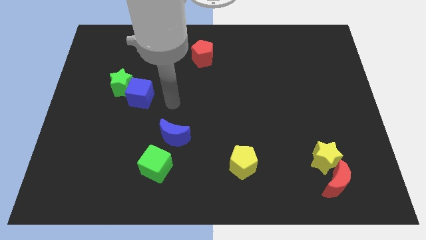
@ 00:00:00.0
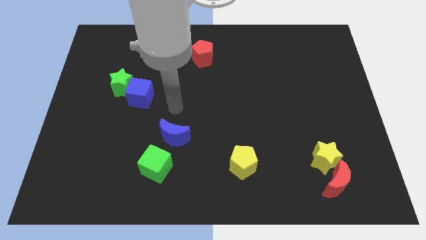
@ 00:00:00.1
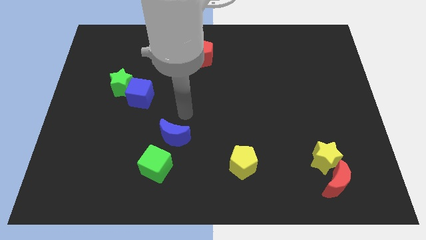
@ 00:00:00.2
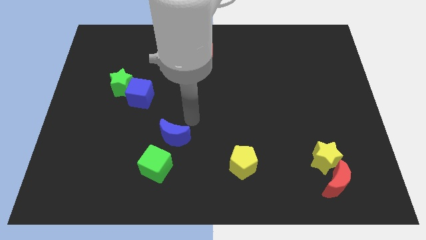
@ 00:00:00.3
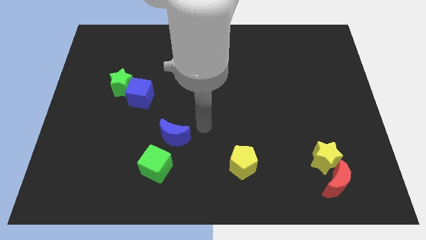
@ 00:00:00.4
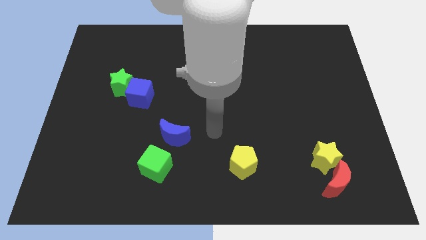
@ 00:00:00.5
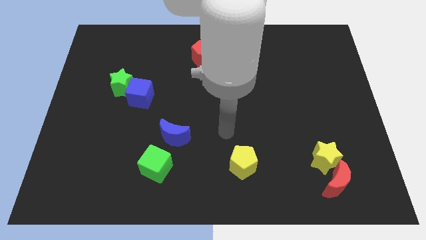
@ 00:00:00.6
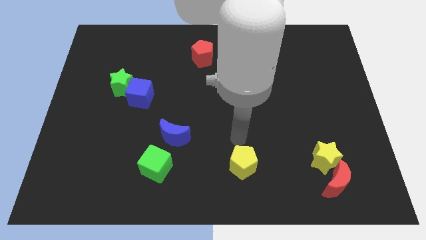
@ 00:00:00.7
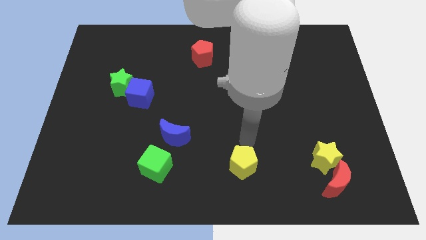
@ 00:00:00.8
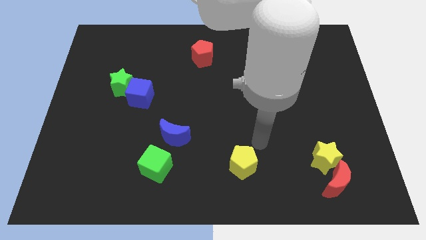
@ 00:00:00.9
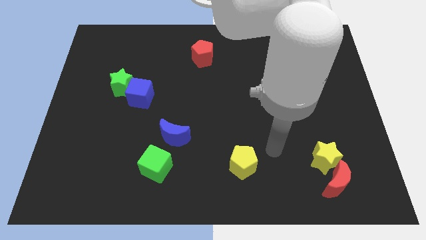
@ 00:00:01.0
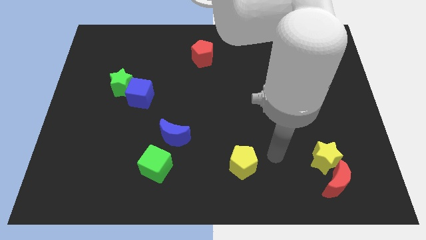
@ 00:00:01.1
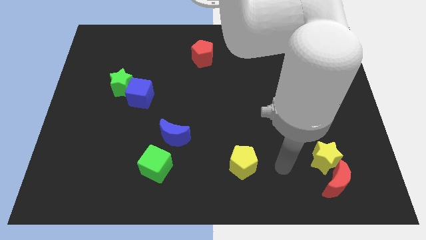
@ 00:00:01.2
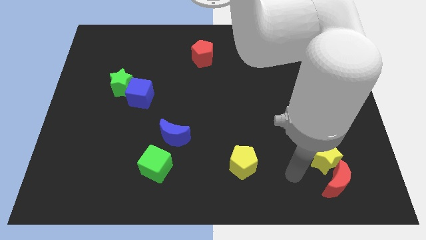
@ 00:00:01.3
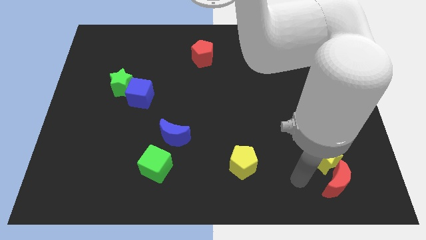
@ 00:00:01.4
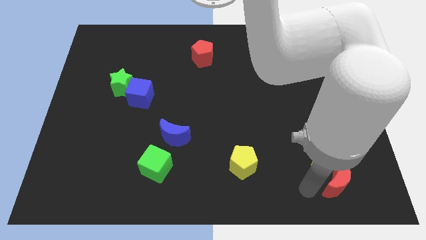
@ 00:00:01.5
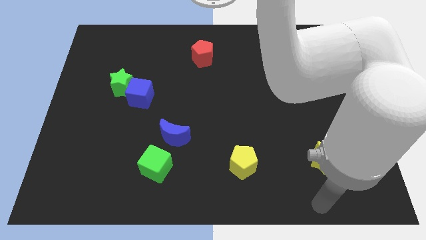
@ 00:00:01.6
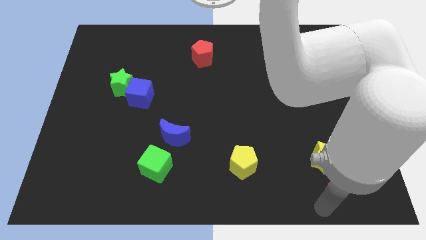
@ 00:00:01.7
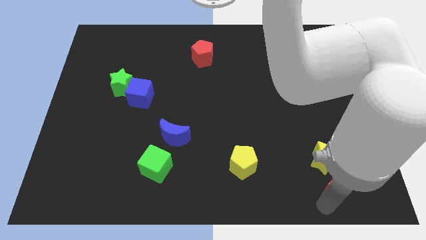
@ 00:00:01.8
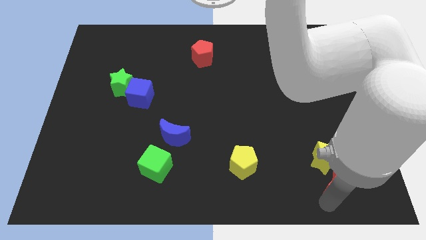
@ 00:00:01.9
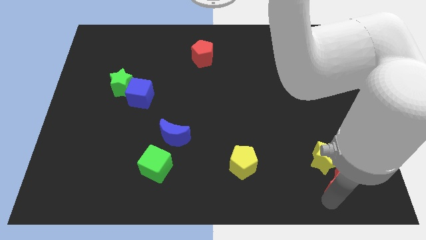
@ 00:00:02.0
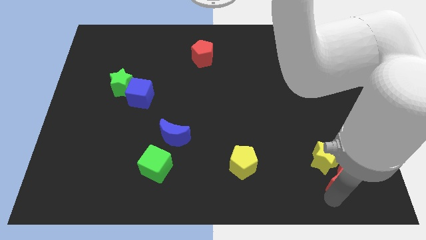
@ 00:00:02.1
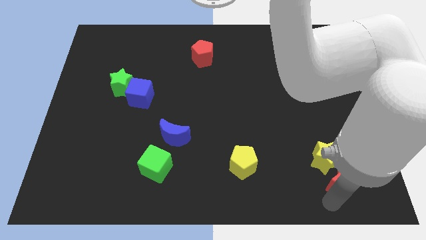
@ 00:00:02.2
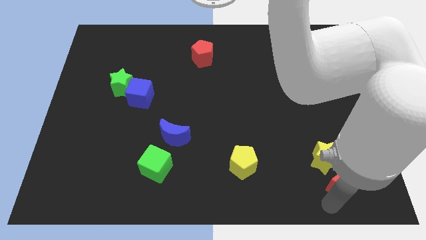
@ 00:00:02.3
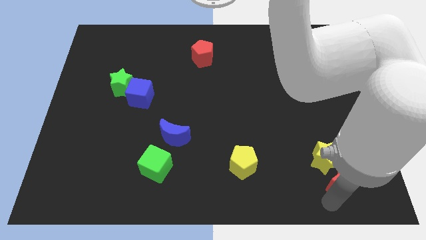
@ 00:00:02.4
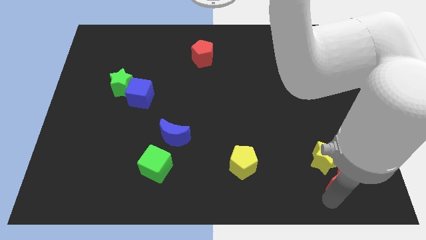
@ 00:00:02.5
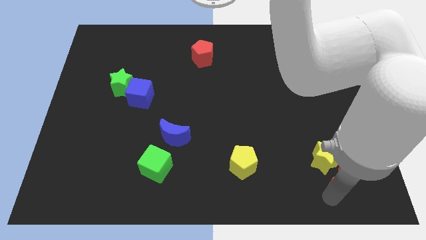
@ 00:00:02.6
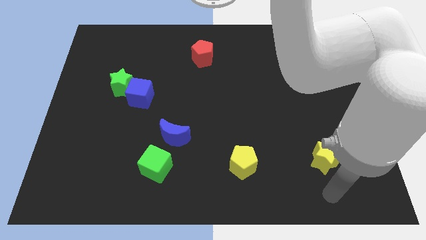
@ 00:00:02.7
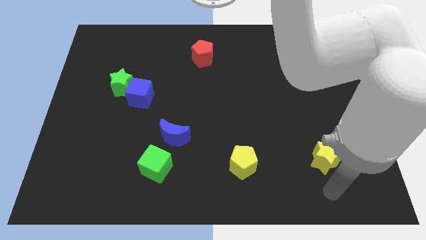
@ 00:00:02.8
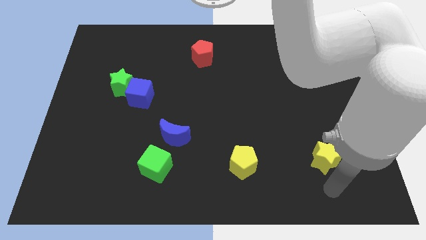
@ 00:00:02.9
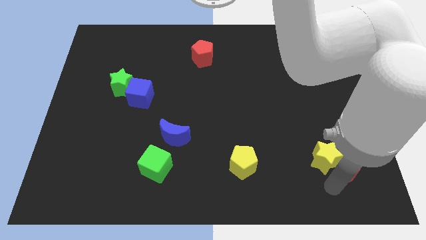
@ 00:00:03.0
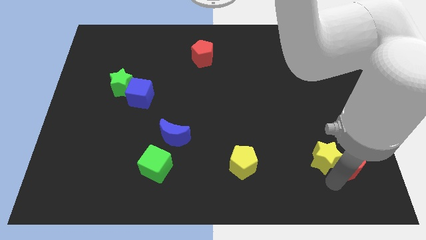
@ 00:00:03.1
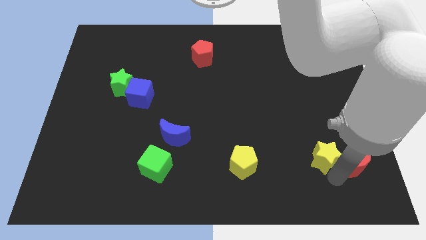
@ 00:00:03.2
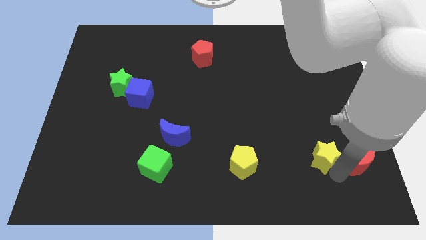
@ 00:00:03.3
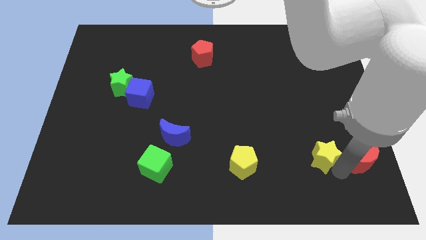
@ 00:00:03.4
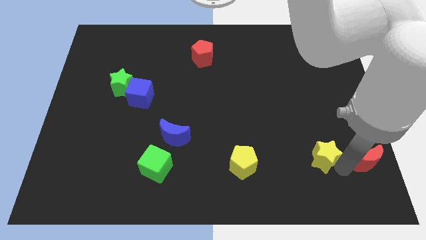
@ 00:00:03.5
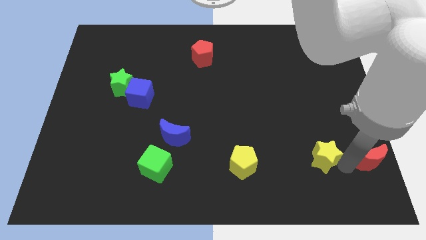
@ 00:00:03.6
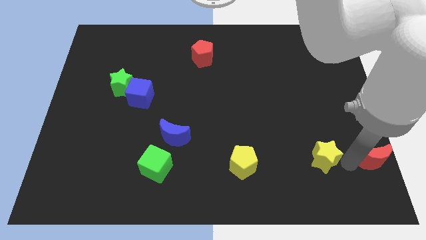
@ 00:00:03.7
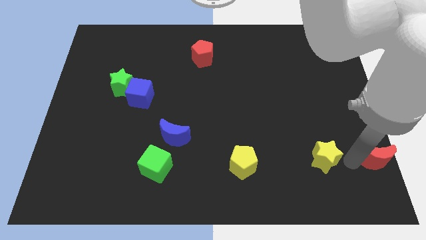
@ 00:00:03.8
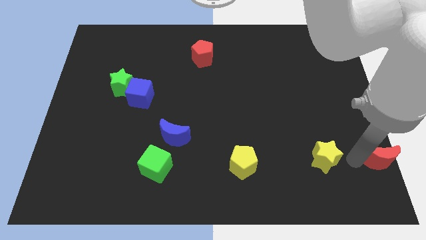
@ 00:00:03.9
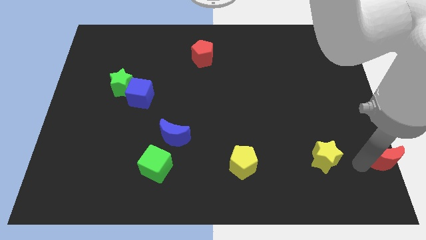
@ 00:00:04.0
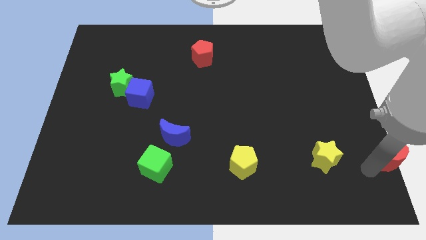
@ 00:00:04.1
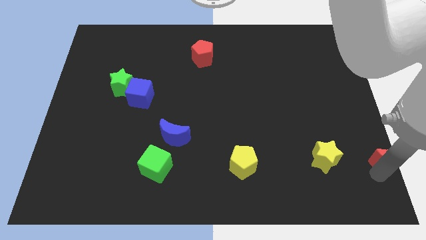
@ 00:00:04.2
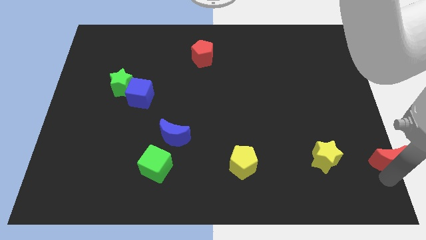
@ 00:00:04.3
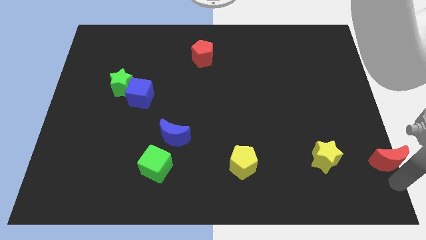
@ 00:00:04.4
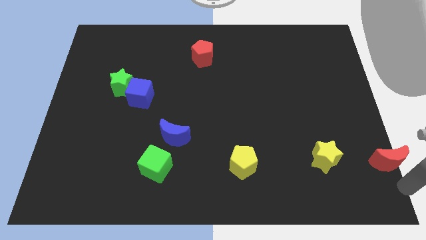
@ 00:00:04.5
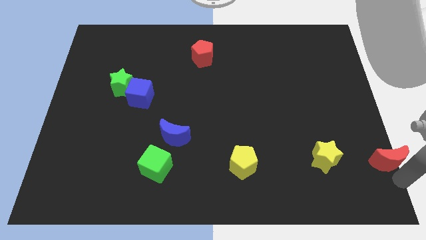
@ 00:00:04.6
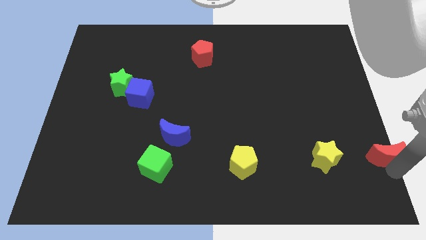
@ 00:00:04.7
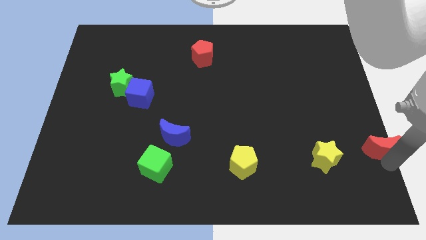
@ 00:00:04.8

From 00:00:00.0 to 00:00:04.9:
slide the red moon to the center right

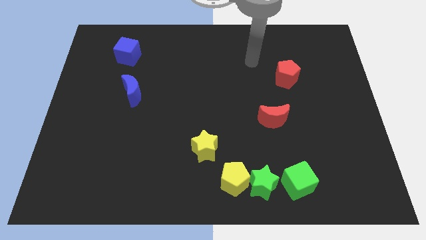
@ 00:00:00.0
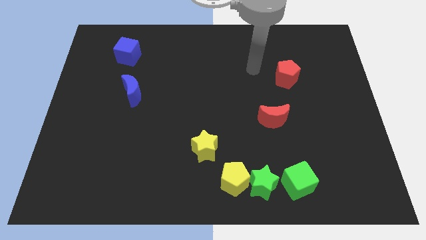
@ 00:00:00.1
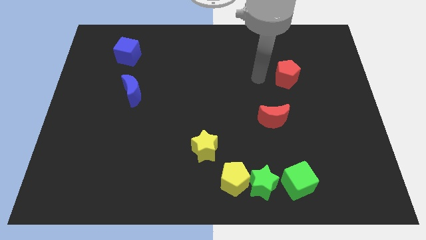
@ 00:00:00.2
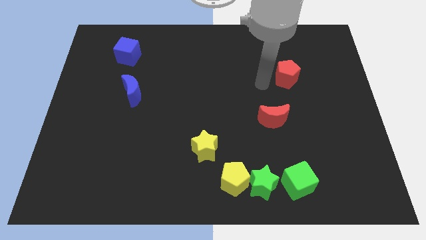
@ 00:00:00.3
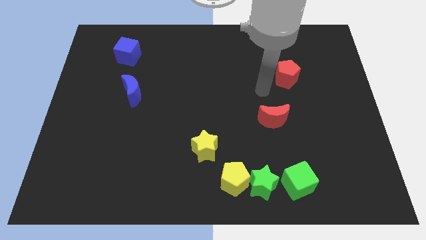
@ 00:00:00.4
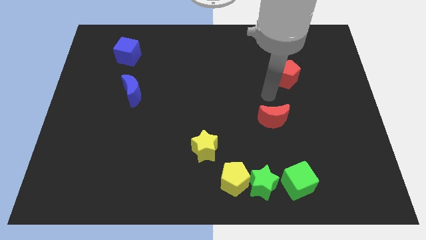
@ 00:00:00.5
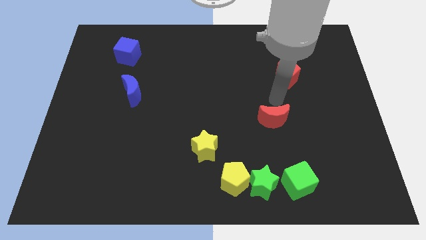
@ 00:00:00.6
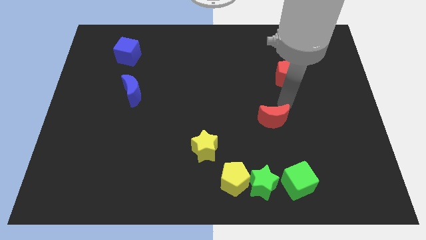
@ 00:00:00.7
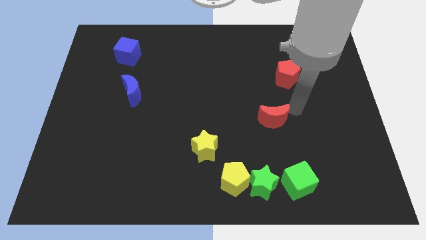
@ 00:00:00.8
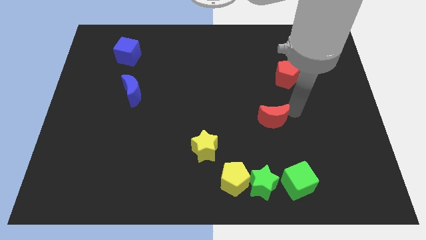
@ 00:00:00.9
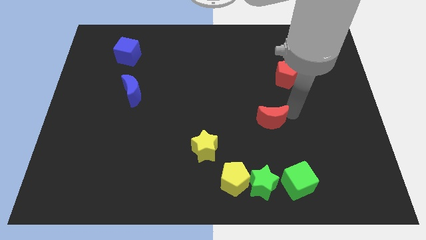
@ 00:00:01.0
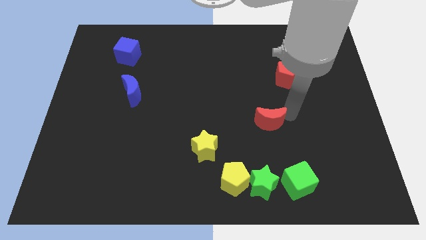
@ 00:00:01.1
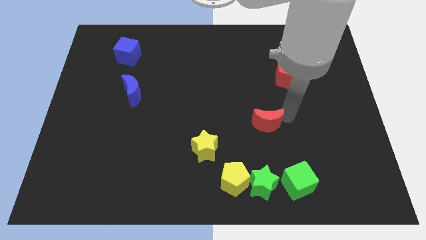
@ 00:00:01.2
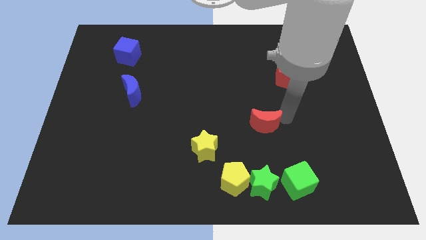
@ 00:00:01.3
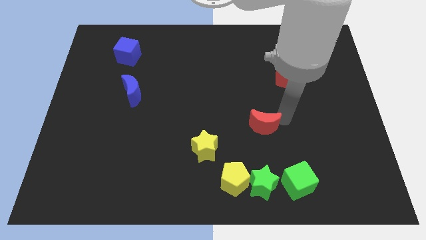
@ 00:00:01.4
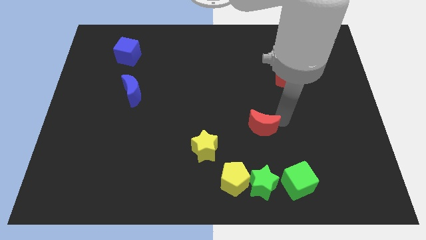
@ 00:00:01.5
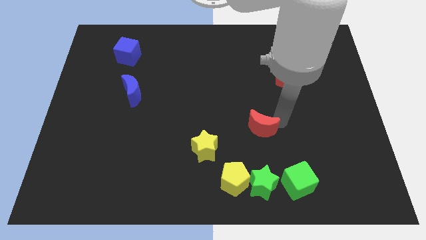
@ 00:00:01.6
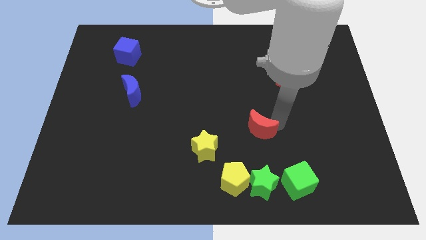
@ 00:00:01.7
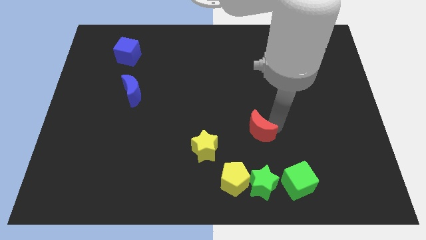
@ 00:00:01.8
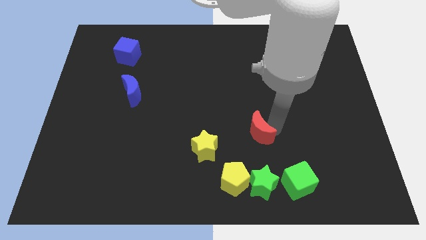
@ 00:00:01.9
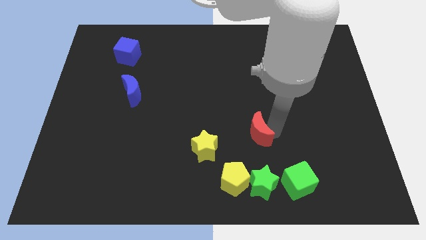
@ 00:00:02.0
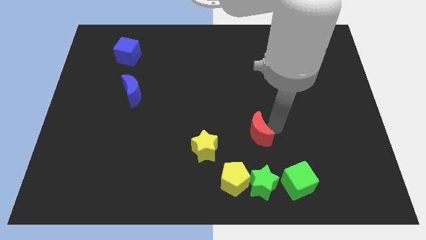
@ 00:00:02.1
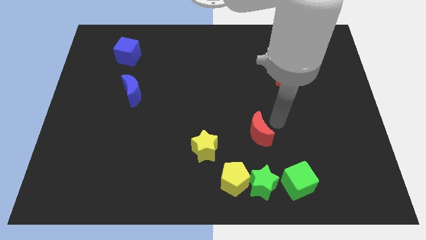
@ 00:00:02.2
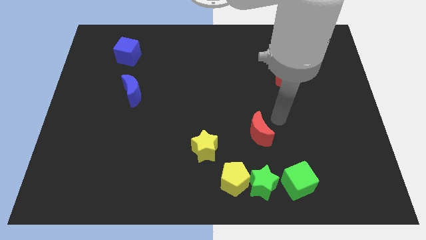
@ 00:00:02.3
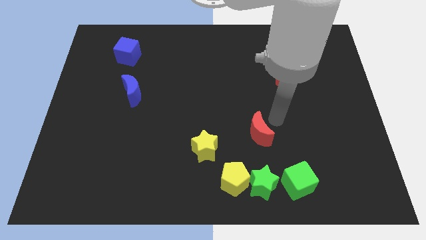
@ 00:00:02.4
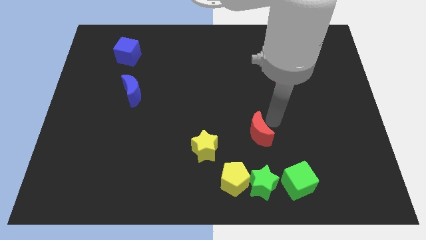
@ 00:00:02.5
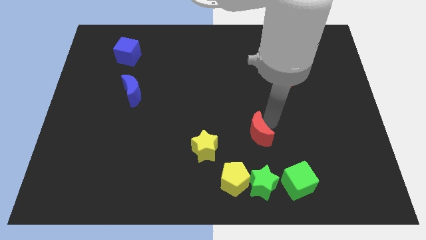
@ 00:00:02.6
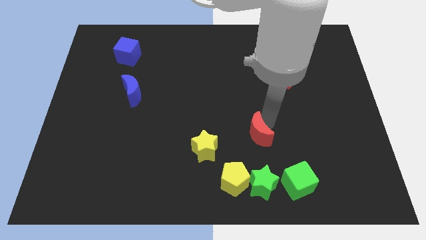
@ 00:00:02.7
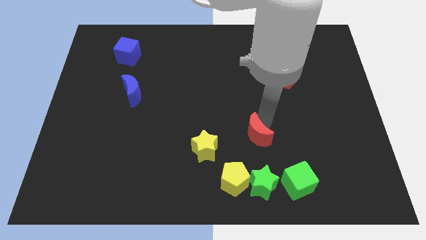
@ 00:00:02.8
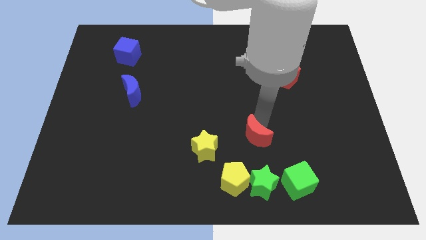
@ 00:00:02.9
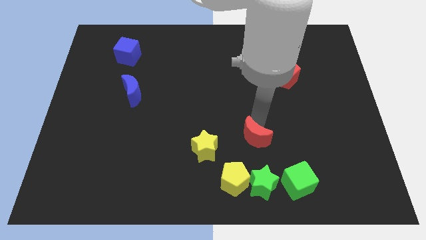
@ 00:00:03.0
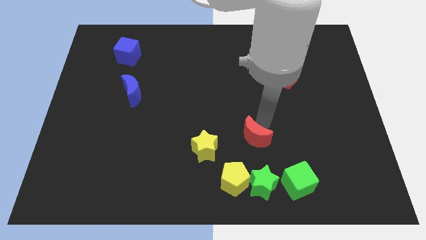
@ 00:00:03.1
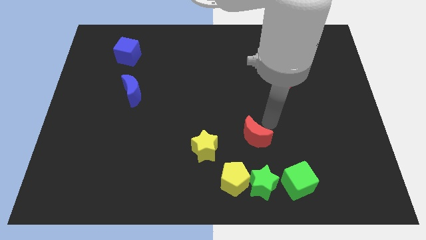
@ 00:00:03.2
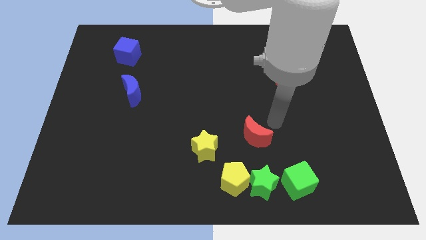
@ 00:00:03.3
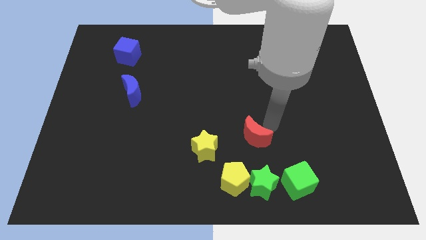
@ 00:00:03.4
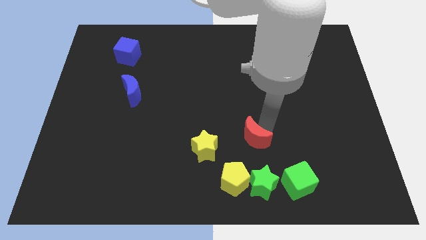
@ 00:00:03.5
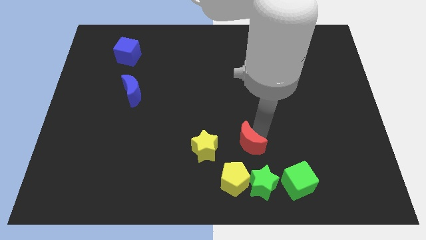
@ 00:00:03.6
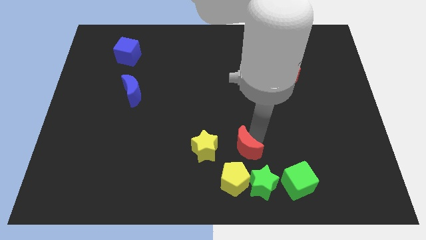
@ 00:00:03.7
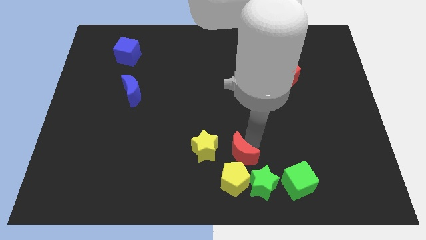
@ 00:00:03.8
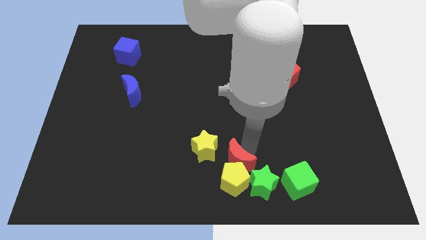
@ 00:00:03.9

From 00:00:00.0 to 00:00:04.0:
slide the red moon to the bottom
